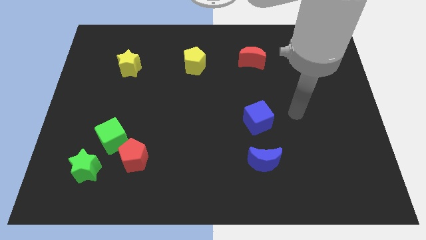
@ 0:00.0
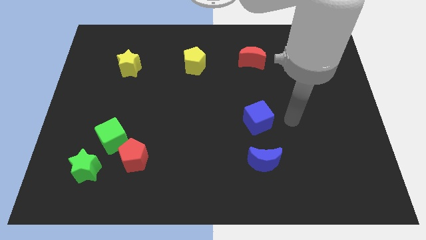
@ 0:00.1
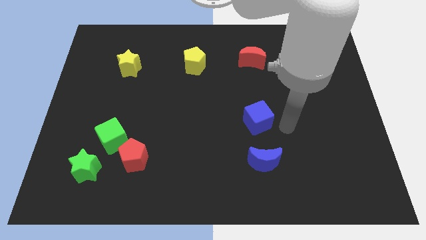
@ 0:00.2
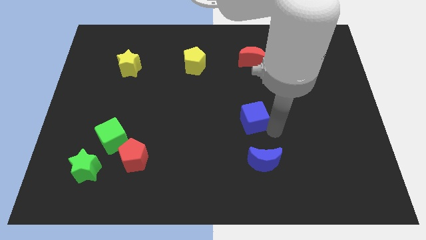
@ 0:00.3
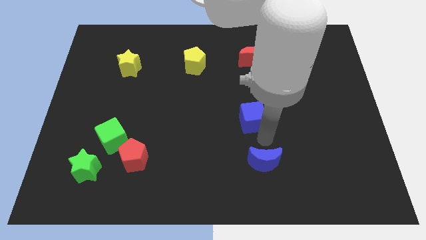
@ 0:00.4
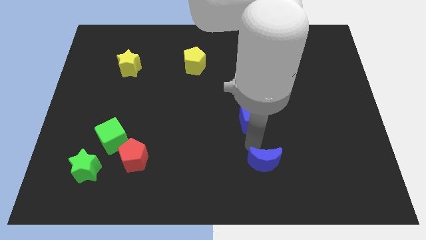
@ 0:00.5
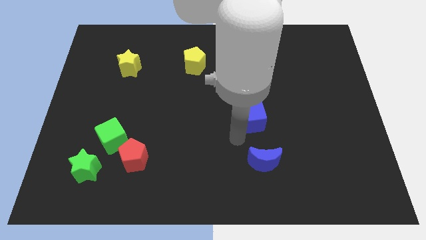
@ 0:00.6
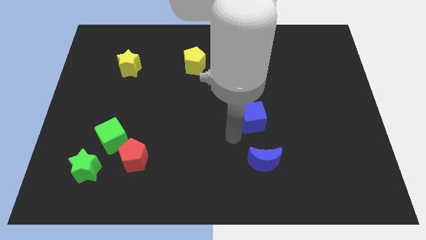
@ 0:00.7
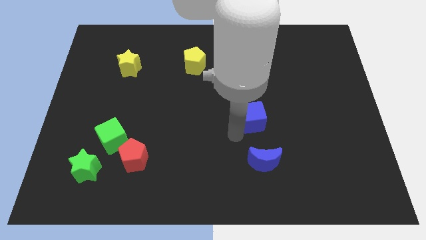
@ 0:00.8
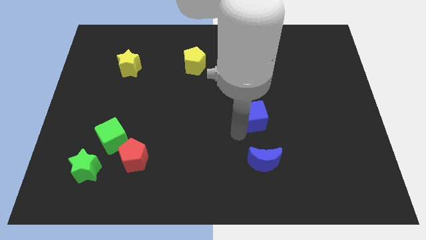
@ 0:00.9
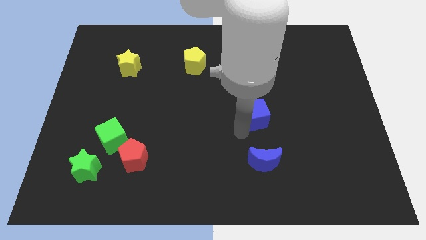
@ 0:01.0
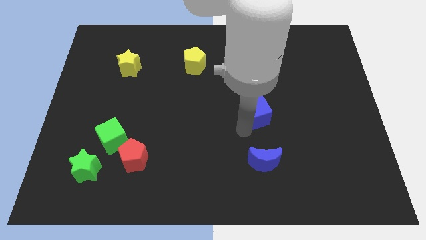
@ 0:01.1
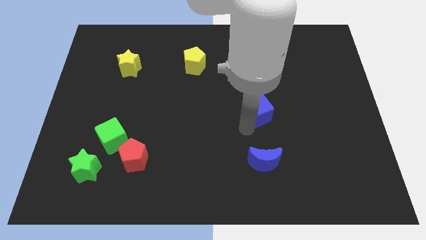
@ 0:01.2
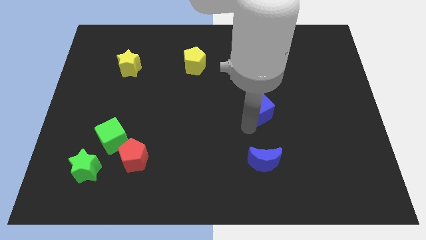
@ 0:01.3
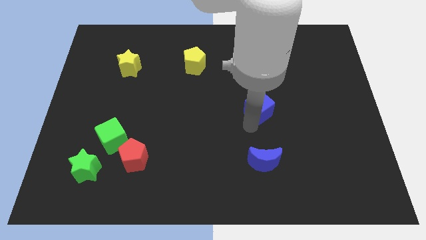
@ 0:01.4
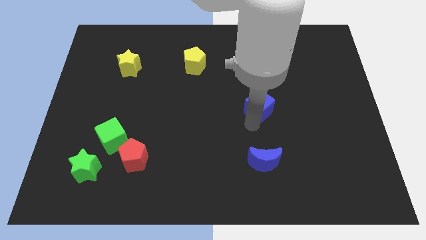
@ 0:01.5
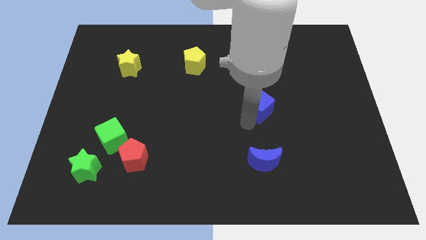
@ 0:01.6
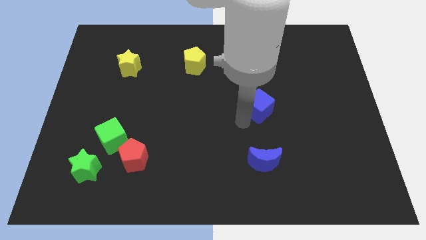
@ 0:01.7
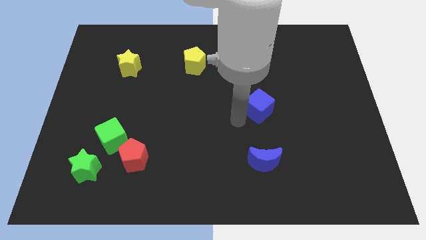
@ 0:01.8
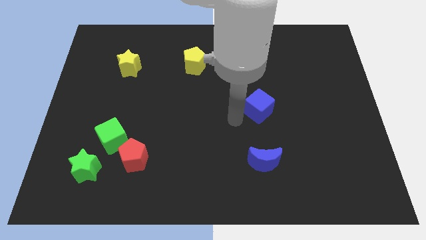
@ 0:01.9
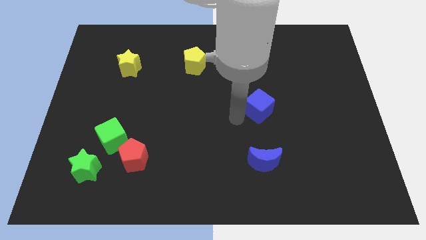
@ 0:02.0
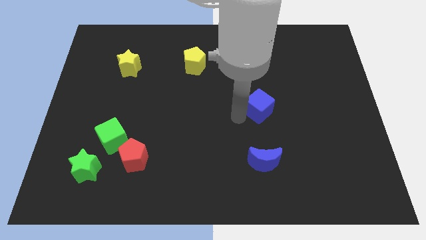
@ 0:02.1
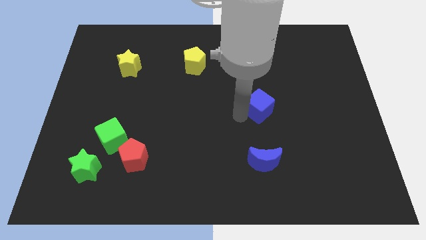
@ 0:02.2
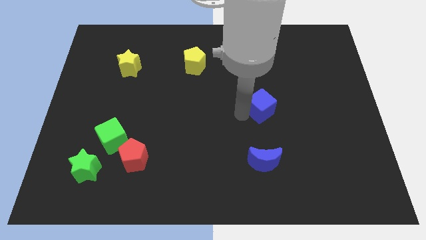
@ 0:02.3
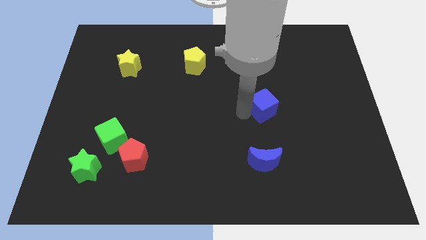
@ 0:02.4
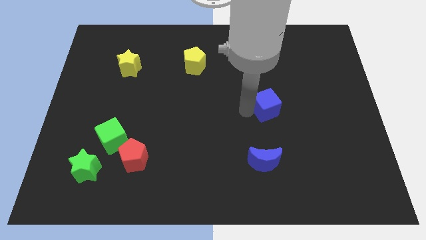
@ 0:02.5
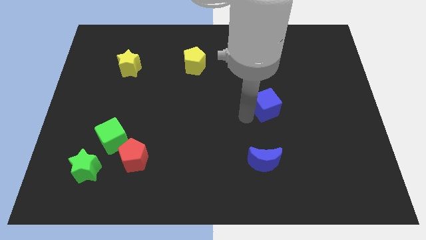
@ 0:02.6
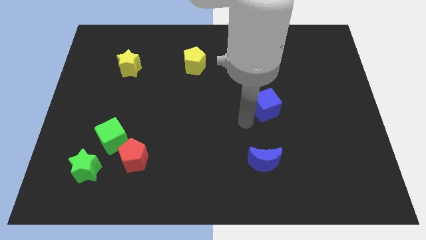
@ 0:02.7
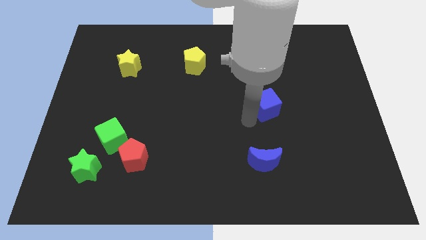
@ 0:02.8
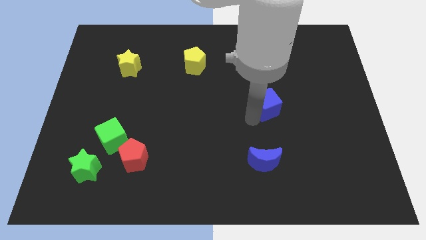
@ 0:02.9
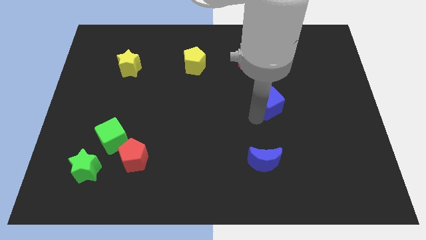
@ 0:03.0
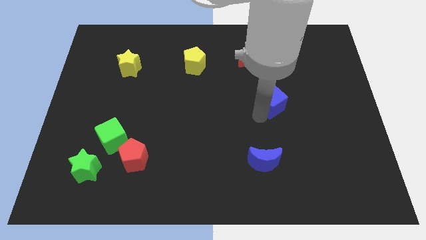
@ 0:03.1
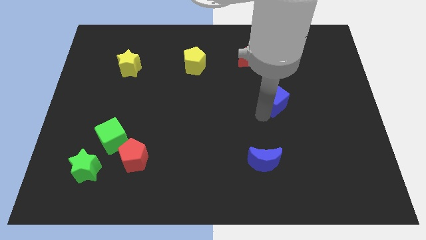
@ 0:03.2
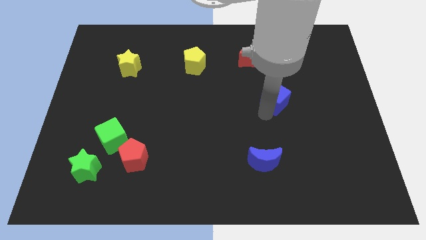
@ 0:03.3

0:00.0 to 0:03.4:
push the blue cube upwards and to the right somewhat

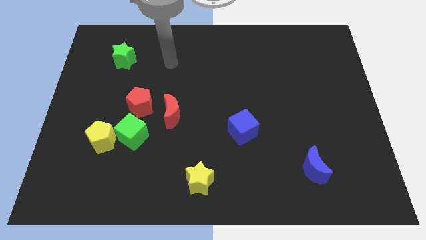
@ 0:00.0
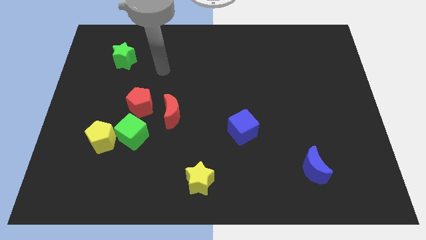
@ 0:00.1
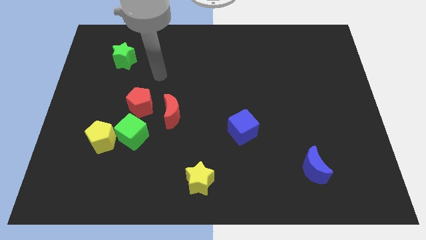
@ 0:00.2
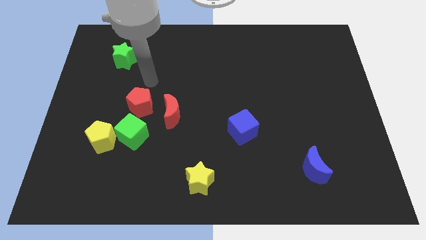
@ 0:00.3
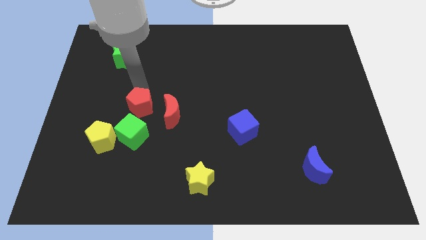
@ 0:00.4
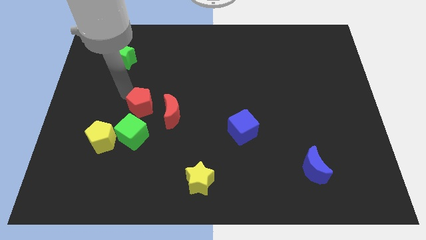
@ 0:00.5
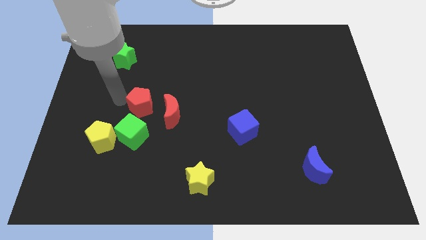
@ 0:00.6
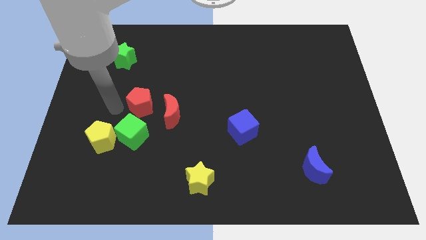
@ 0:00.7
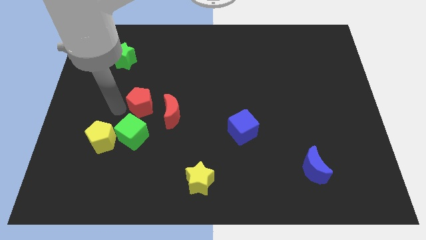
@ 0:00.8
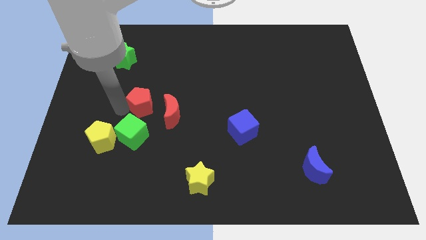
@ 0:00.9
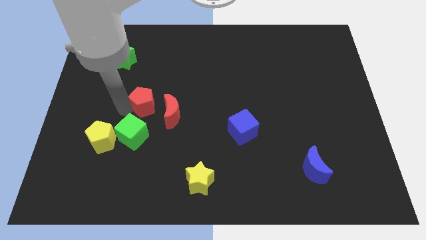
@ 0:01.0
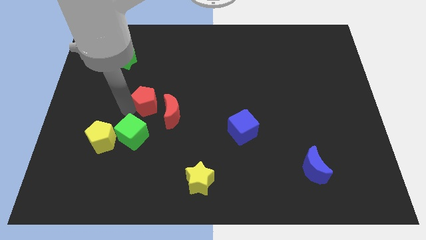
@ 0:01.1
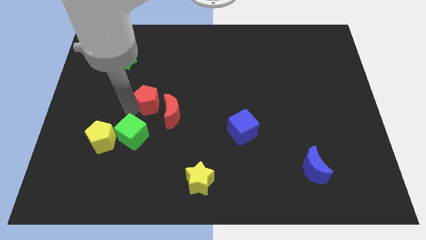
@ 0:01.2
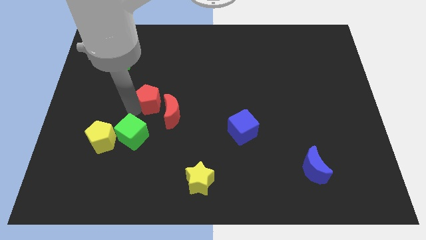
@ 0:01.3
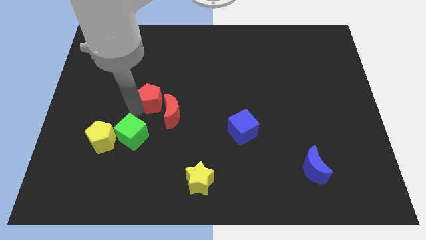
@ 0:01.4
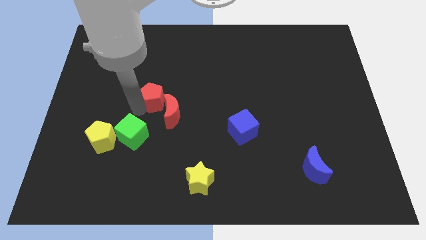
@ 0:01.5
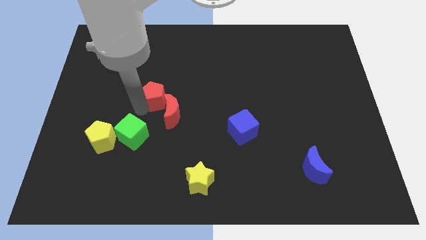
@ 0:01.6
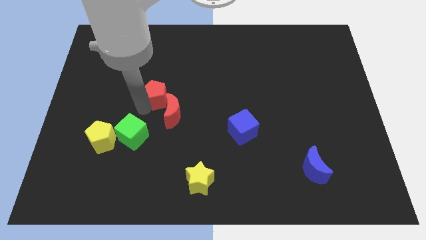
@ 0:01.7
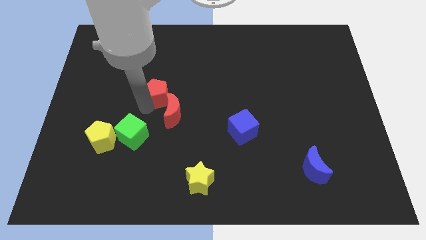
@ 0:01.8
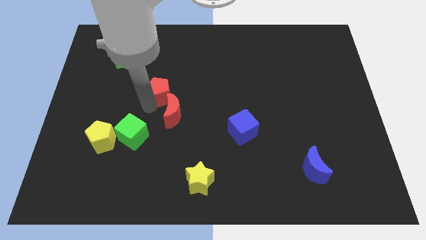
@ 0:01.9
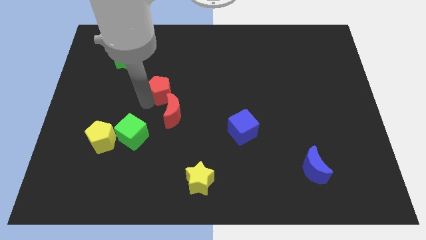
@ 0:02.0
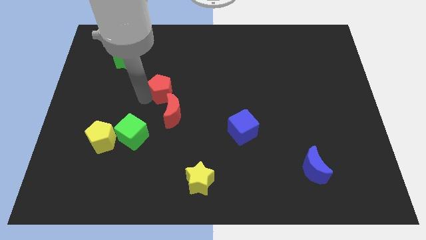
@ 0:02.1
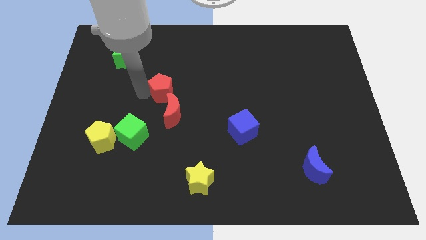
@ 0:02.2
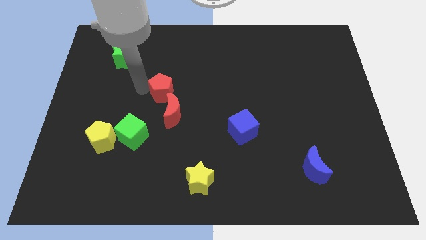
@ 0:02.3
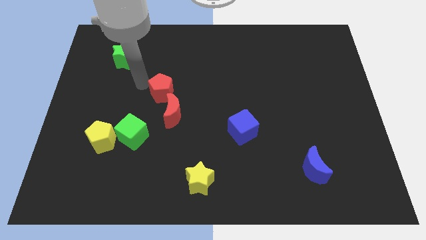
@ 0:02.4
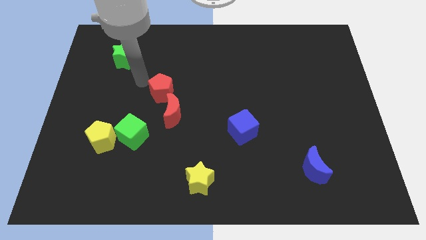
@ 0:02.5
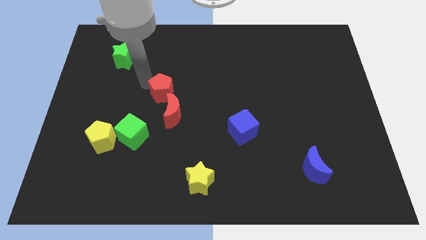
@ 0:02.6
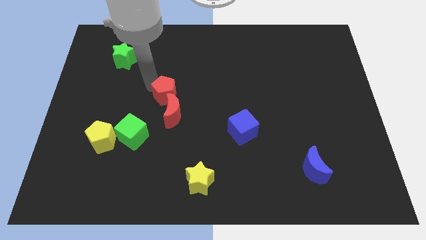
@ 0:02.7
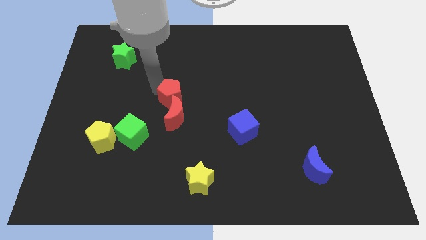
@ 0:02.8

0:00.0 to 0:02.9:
slightly push the red pentagon right

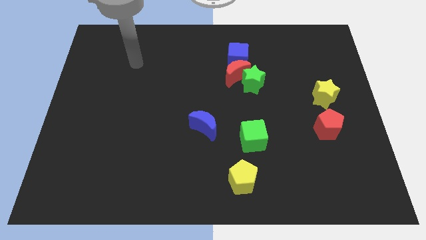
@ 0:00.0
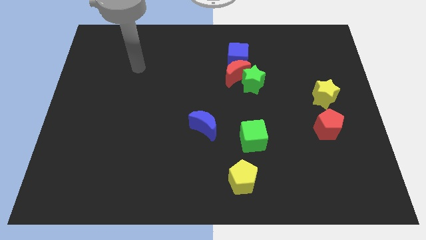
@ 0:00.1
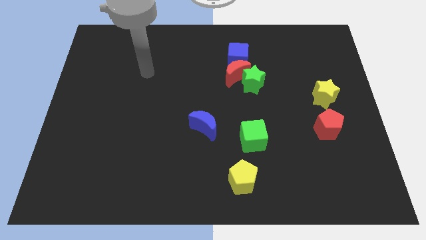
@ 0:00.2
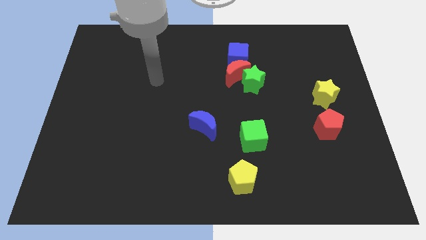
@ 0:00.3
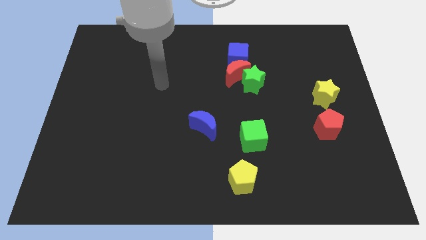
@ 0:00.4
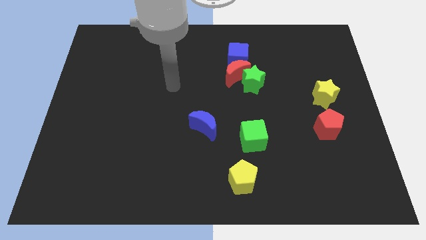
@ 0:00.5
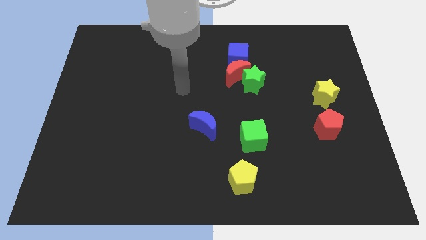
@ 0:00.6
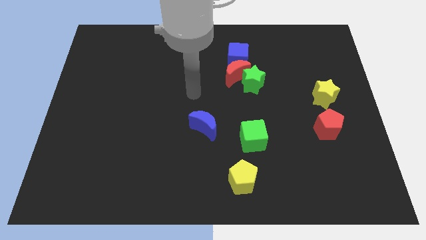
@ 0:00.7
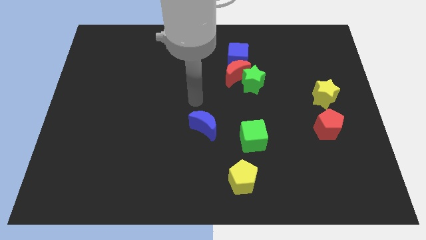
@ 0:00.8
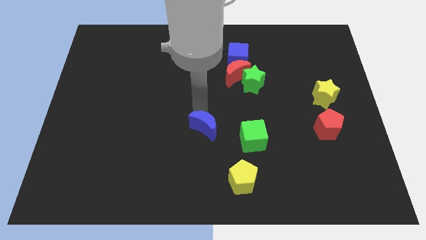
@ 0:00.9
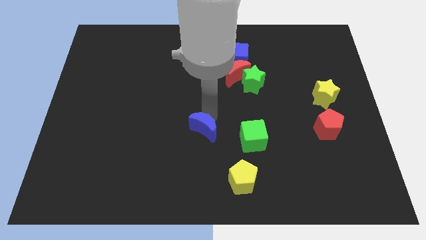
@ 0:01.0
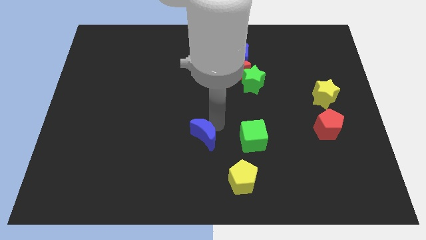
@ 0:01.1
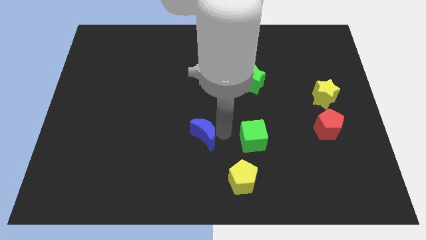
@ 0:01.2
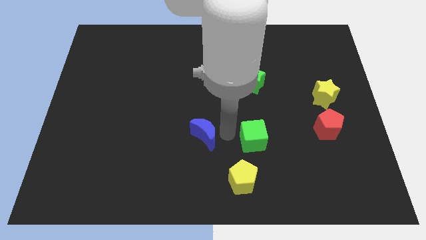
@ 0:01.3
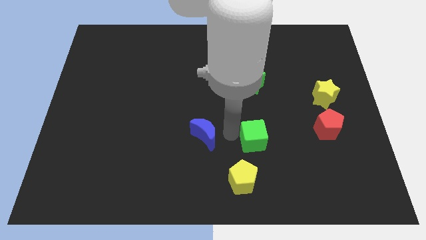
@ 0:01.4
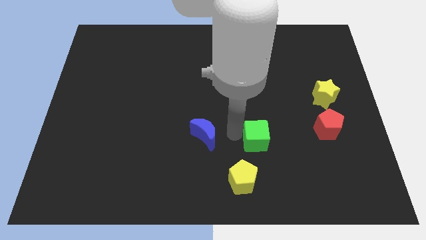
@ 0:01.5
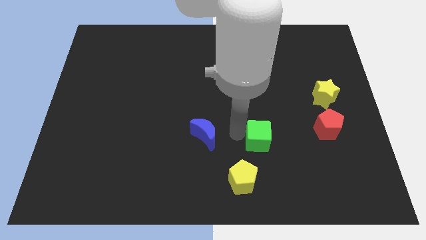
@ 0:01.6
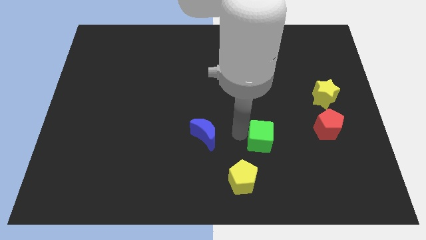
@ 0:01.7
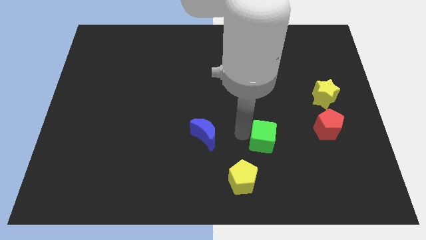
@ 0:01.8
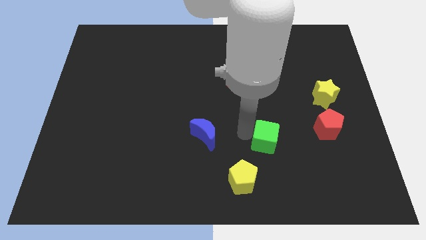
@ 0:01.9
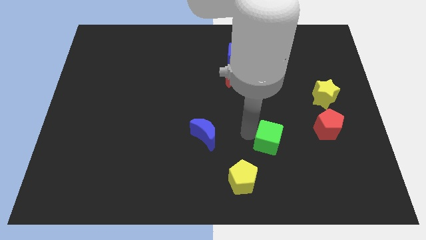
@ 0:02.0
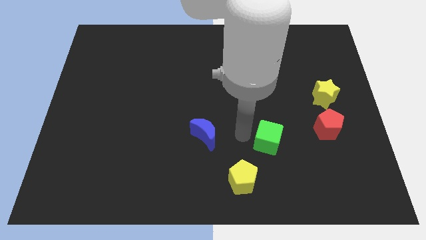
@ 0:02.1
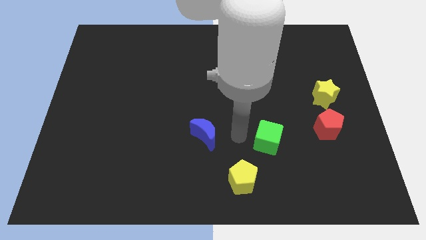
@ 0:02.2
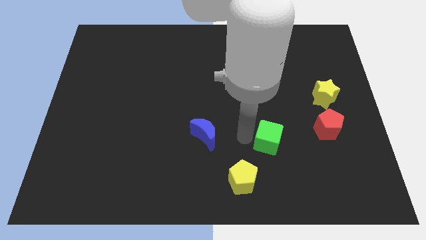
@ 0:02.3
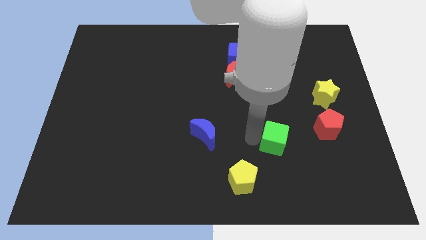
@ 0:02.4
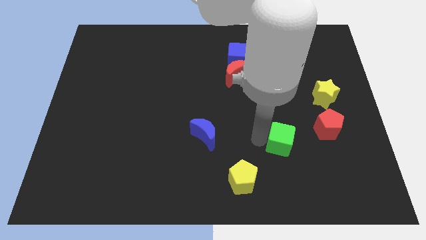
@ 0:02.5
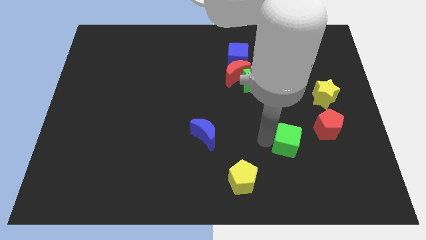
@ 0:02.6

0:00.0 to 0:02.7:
slide the green cube right a little
